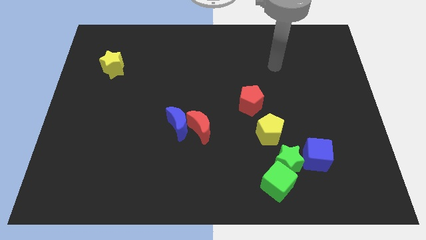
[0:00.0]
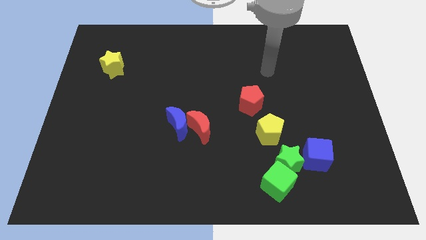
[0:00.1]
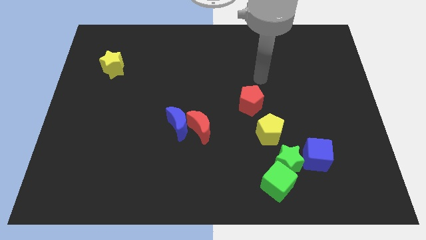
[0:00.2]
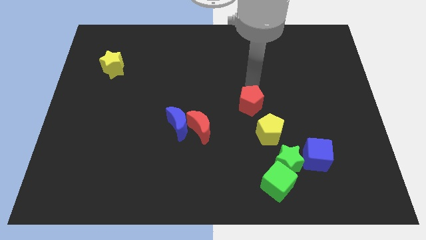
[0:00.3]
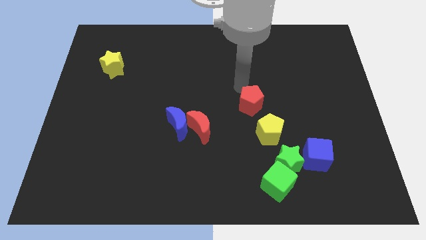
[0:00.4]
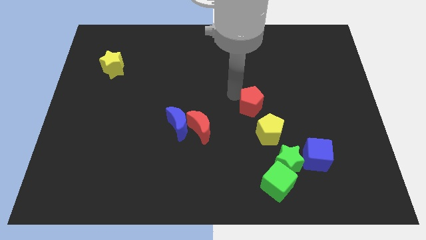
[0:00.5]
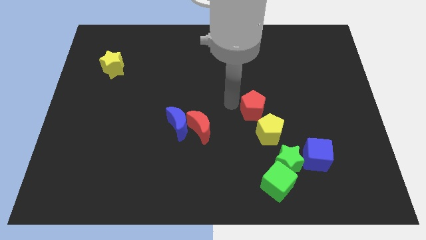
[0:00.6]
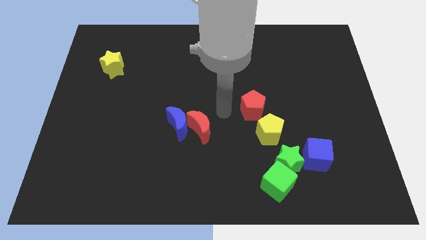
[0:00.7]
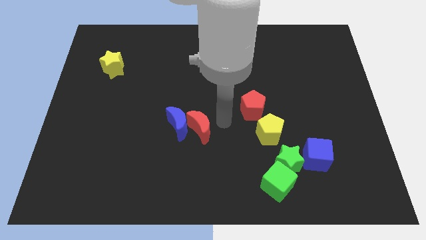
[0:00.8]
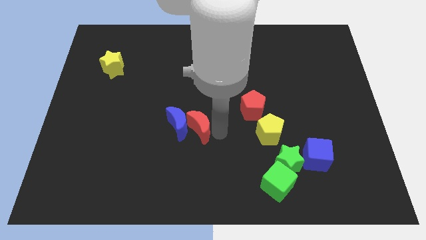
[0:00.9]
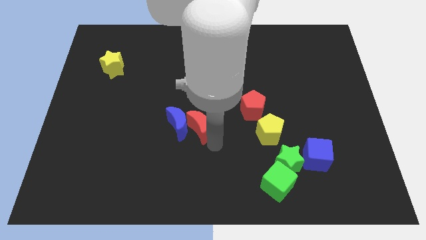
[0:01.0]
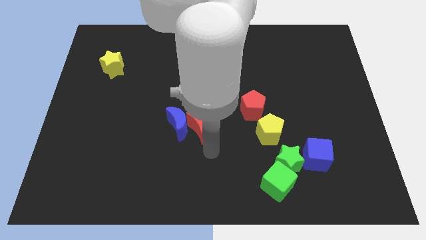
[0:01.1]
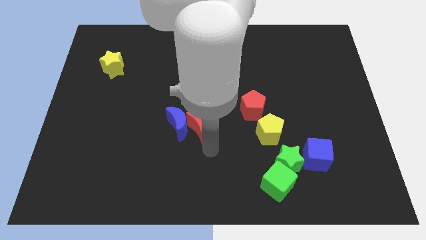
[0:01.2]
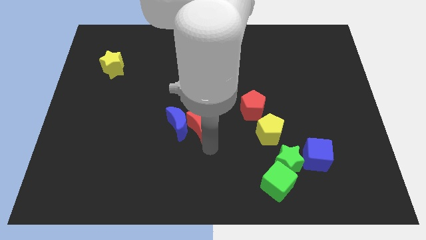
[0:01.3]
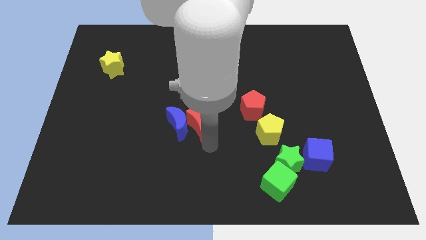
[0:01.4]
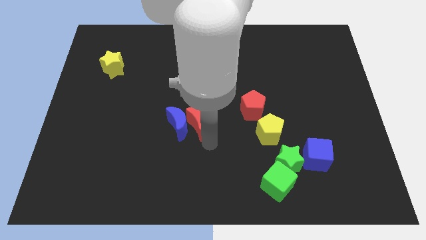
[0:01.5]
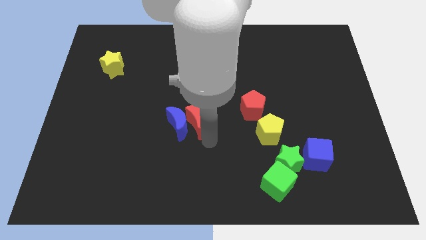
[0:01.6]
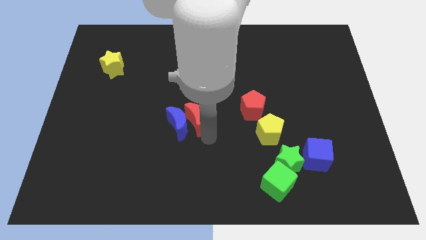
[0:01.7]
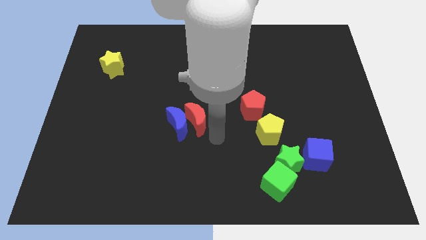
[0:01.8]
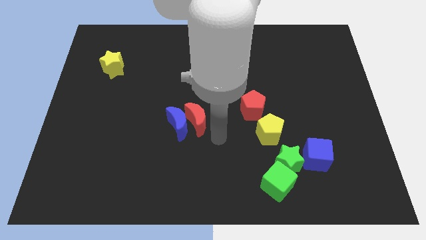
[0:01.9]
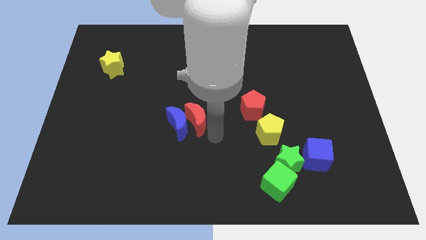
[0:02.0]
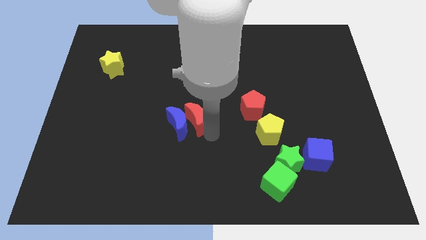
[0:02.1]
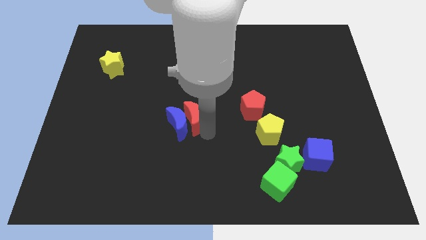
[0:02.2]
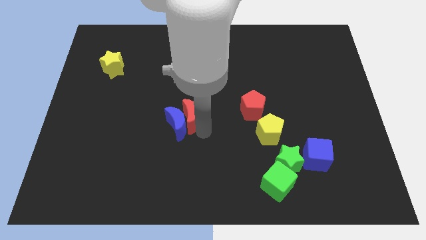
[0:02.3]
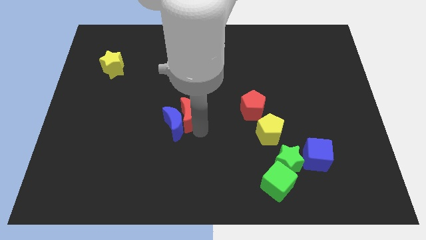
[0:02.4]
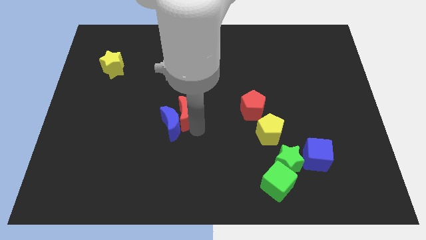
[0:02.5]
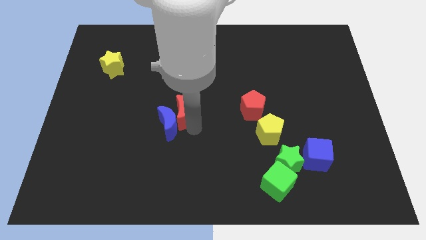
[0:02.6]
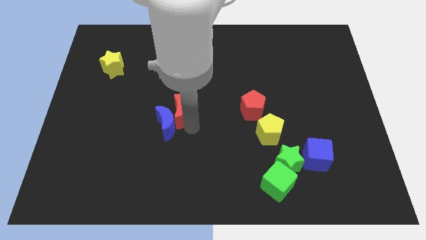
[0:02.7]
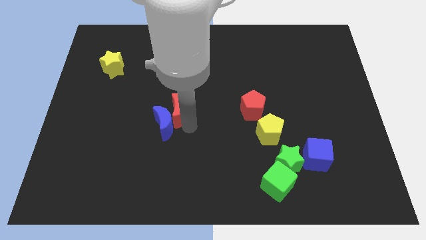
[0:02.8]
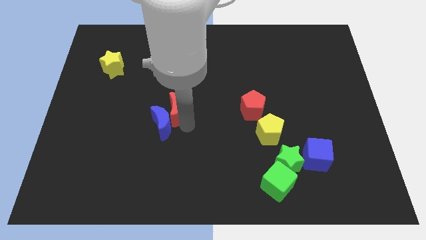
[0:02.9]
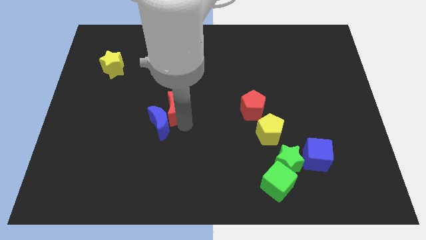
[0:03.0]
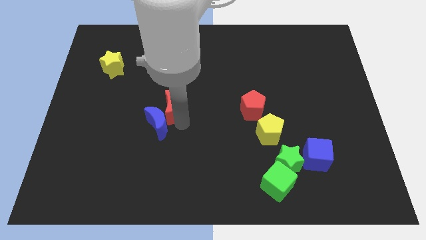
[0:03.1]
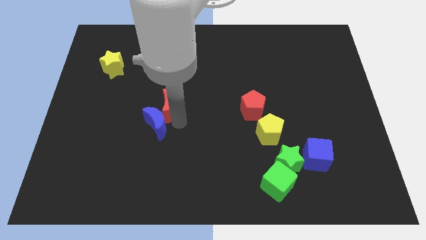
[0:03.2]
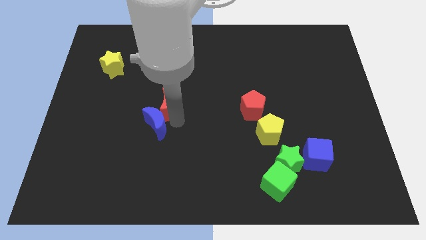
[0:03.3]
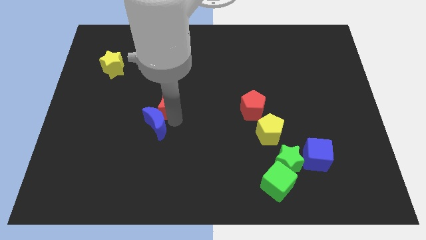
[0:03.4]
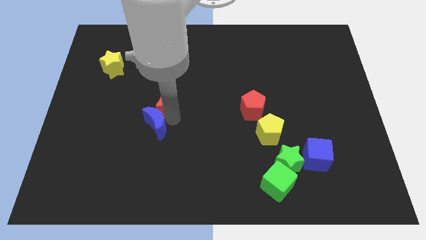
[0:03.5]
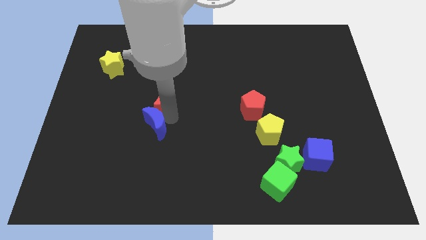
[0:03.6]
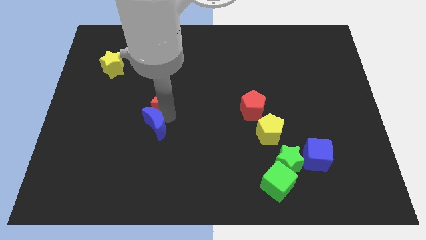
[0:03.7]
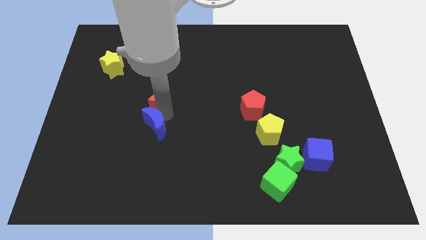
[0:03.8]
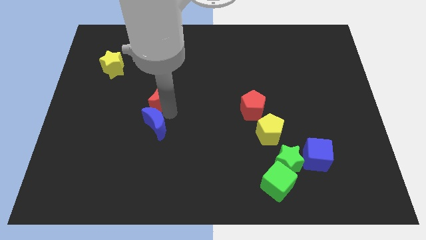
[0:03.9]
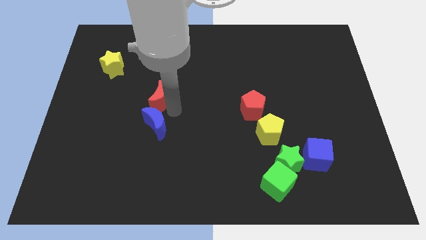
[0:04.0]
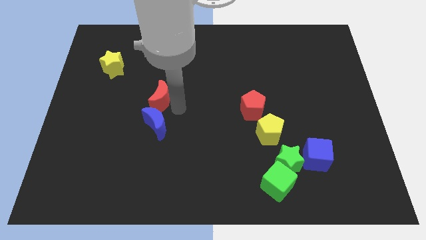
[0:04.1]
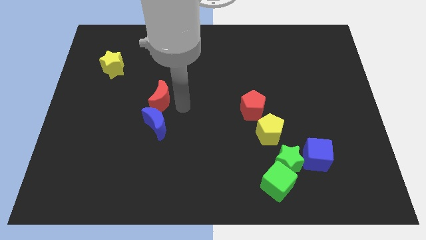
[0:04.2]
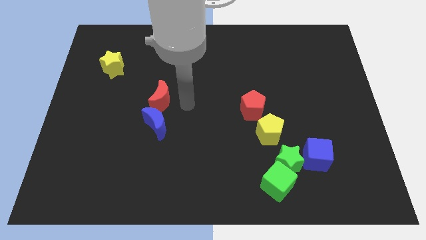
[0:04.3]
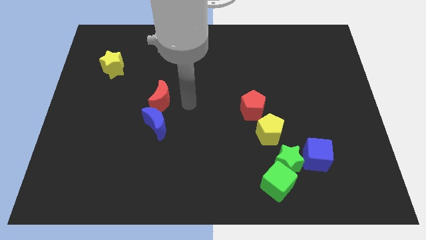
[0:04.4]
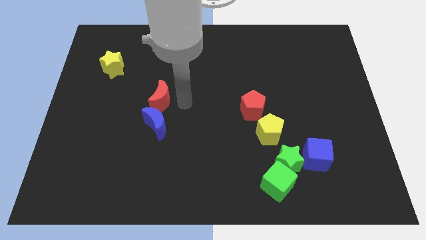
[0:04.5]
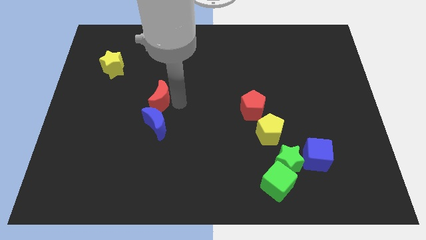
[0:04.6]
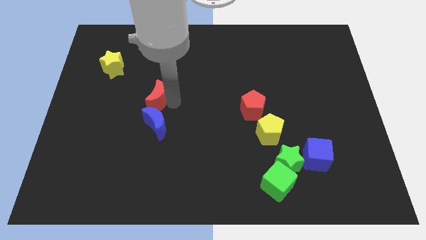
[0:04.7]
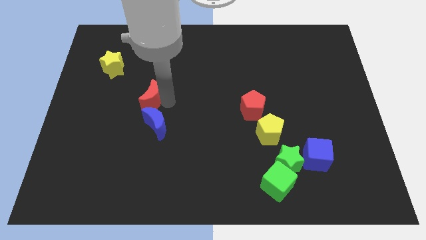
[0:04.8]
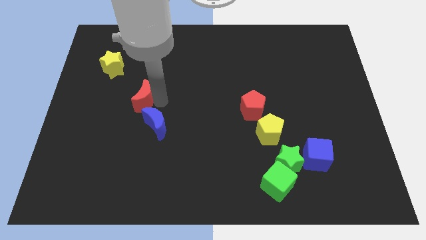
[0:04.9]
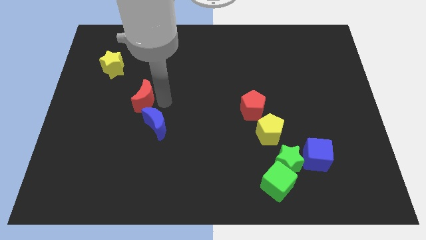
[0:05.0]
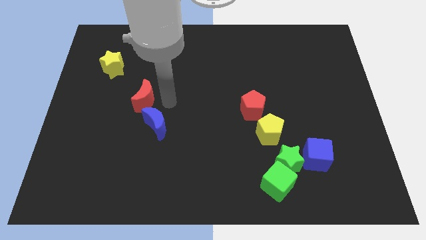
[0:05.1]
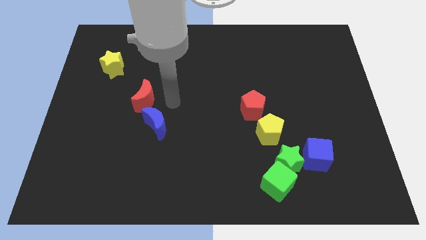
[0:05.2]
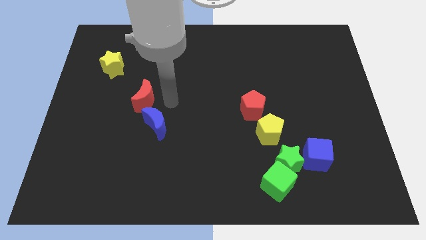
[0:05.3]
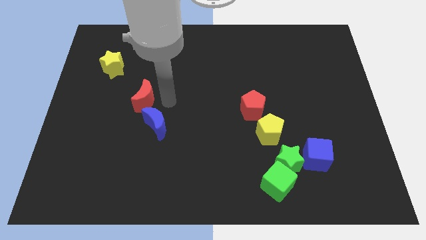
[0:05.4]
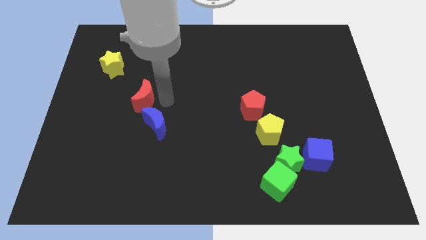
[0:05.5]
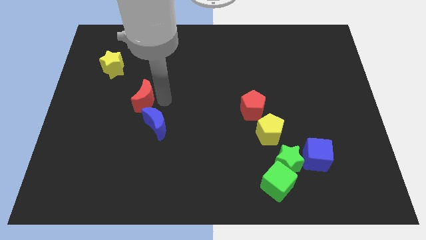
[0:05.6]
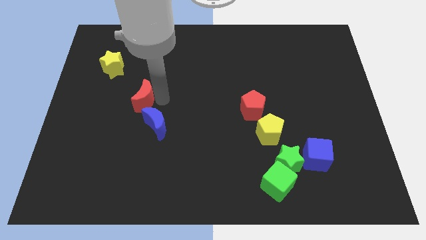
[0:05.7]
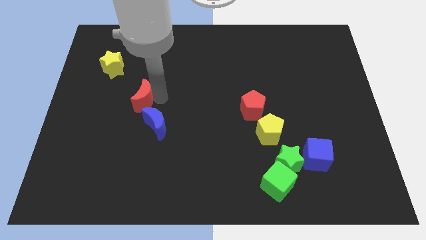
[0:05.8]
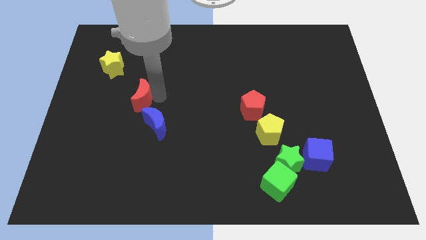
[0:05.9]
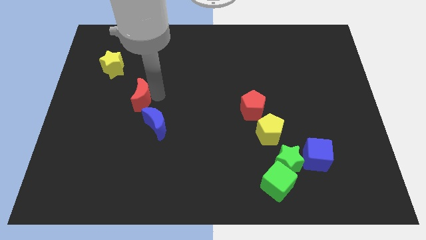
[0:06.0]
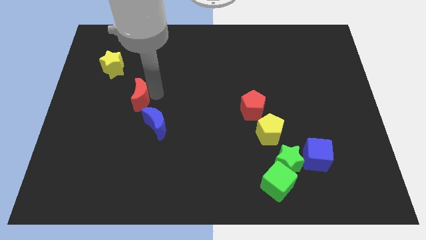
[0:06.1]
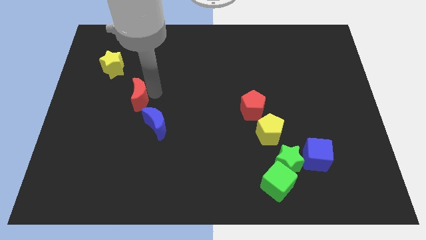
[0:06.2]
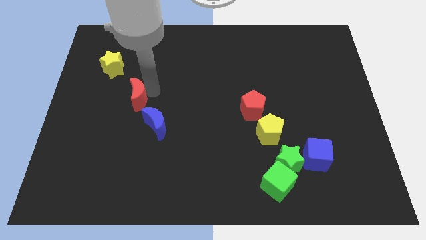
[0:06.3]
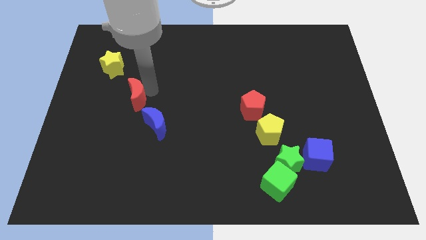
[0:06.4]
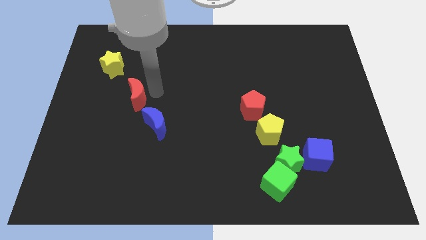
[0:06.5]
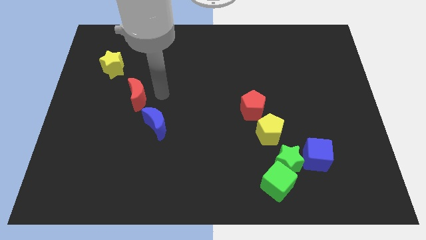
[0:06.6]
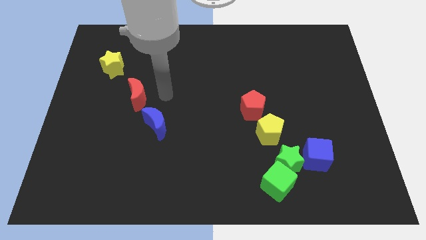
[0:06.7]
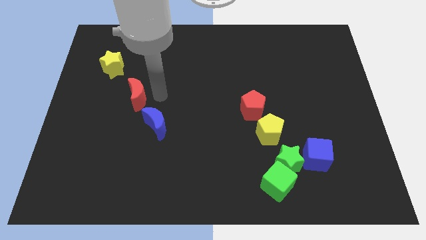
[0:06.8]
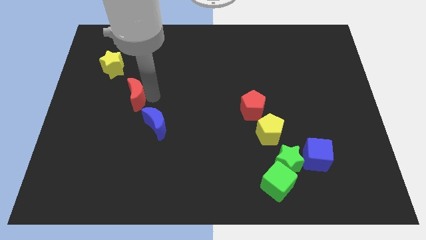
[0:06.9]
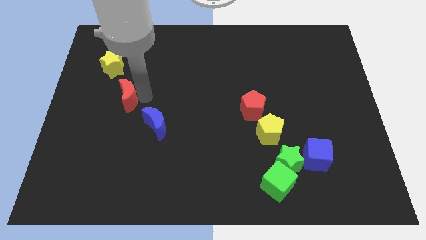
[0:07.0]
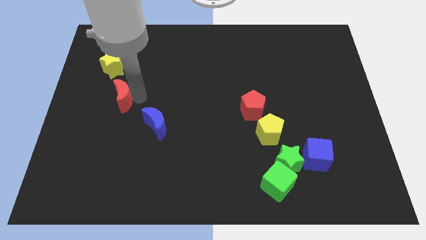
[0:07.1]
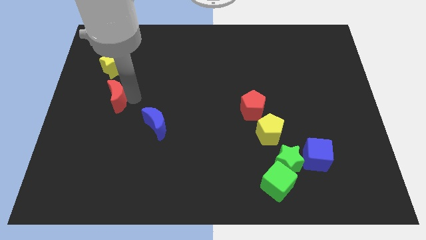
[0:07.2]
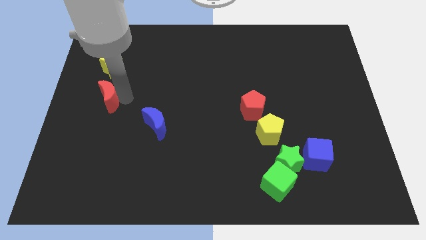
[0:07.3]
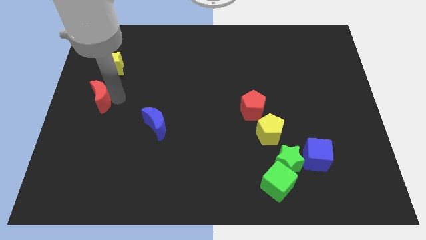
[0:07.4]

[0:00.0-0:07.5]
move the red moon to the left side
